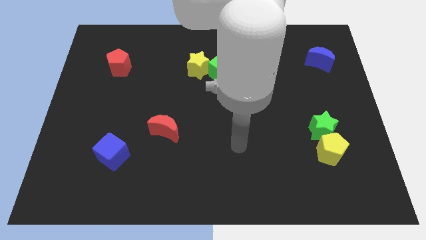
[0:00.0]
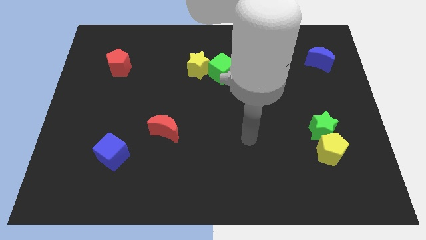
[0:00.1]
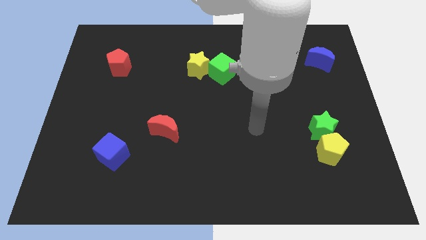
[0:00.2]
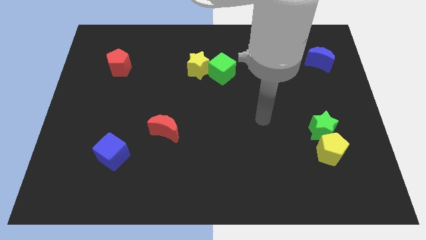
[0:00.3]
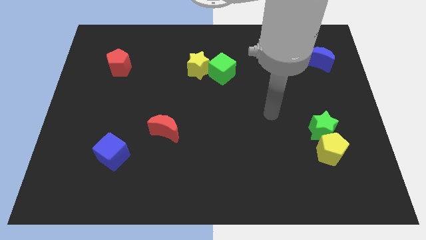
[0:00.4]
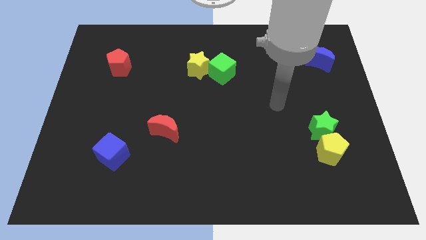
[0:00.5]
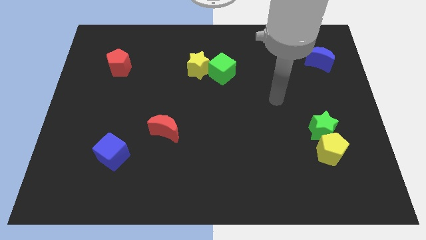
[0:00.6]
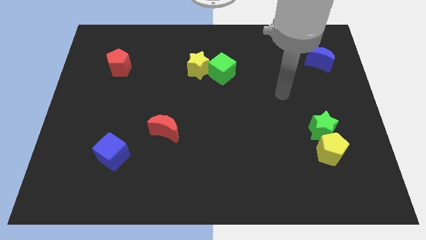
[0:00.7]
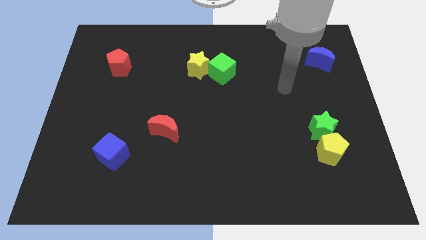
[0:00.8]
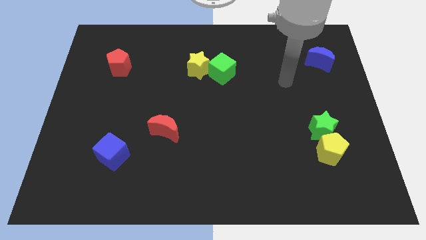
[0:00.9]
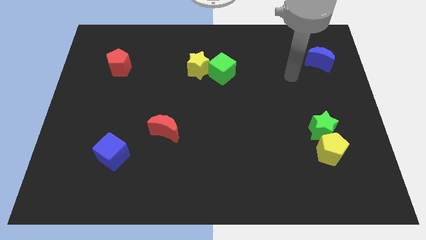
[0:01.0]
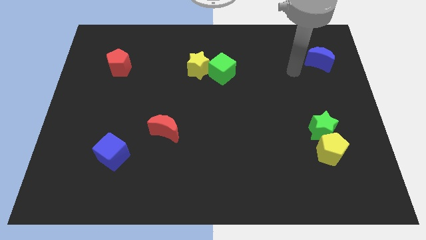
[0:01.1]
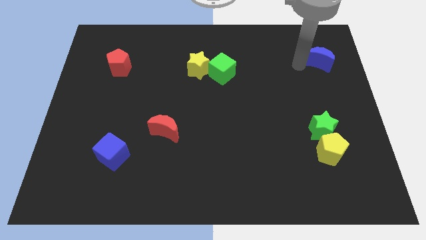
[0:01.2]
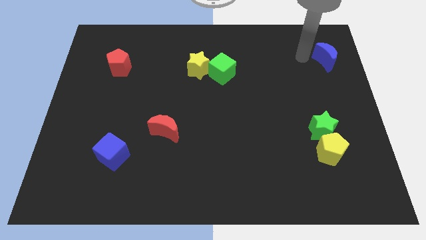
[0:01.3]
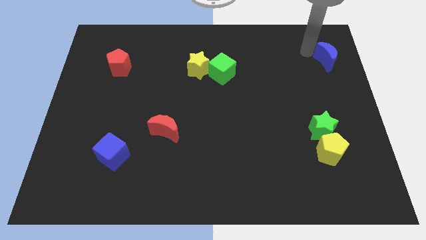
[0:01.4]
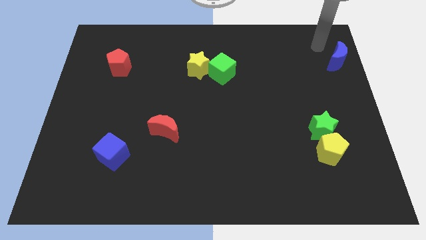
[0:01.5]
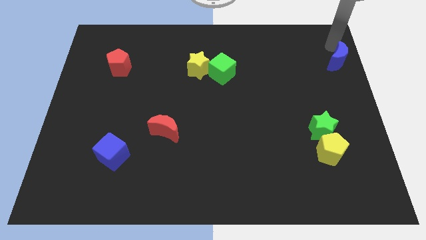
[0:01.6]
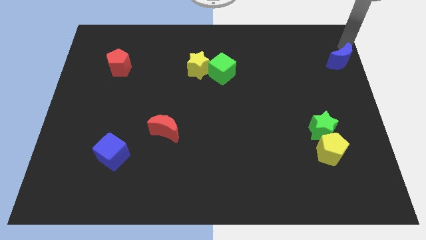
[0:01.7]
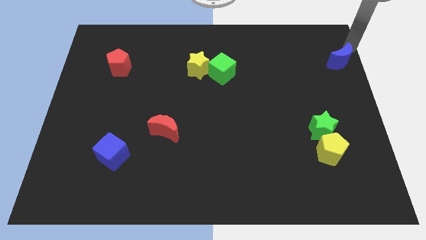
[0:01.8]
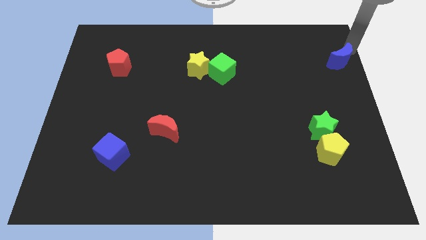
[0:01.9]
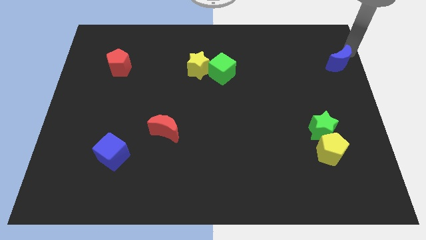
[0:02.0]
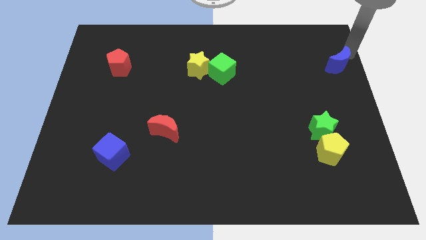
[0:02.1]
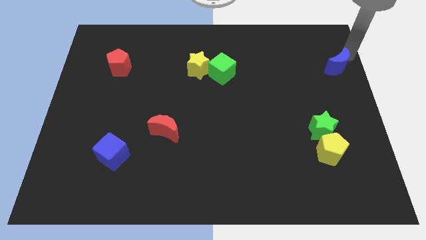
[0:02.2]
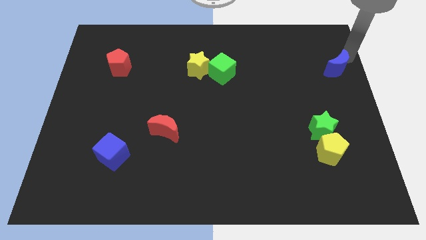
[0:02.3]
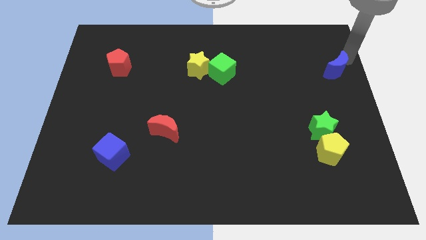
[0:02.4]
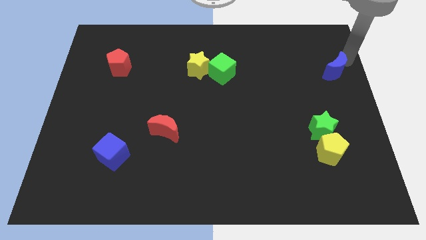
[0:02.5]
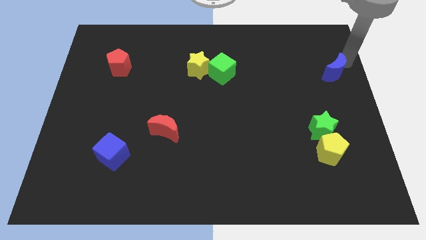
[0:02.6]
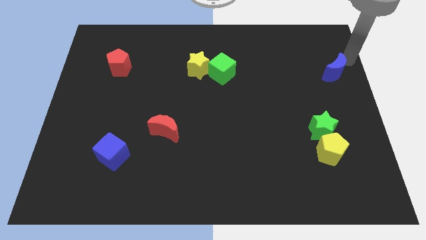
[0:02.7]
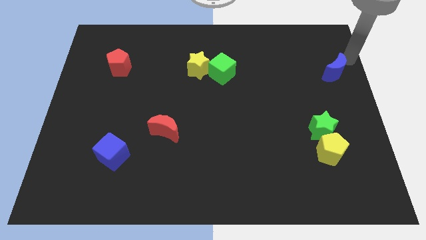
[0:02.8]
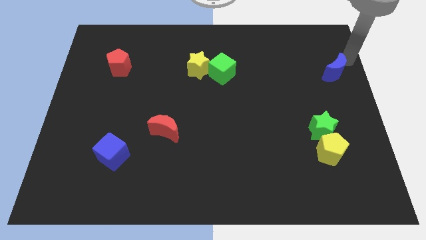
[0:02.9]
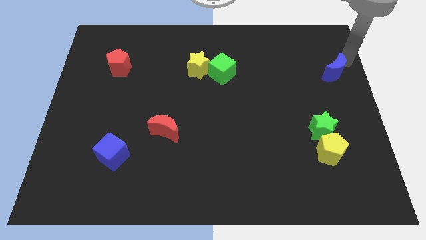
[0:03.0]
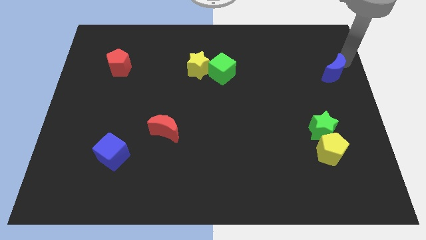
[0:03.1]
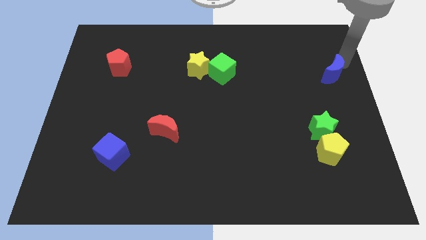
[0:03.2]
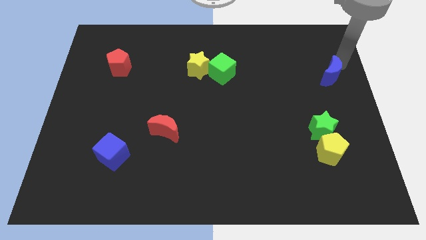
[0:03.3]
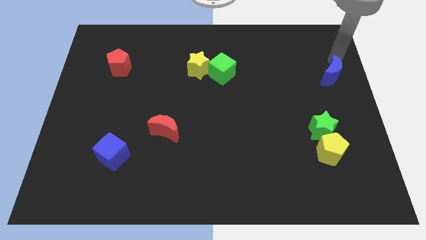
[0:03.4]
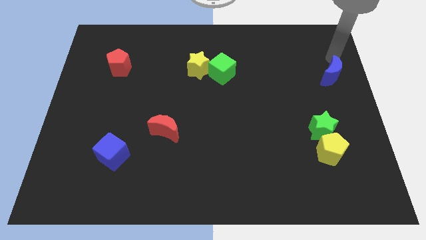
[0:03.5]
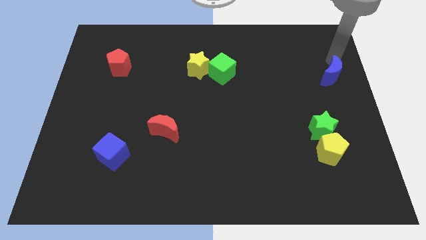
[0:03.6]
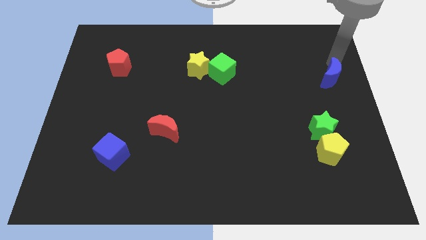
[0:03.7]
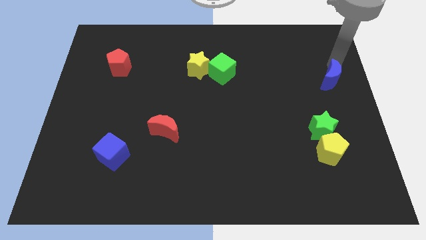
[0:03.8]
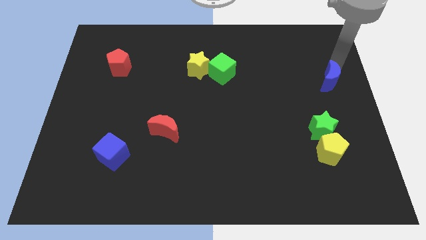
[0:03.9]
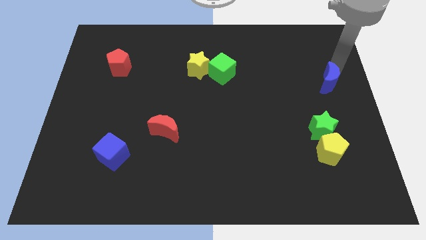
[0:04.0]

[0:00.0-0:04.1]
slightly move the blue moon downwards

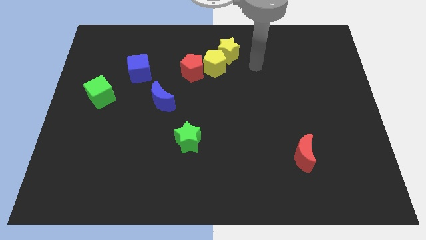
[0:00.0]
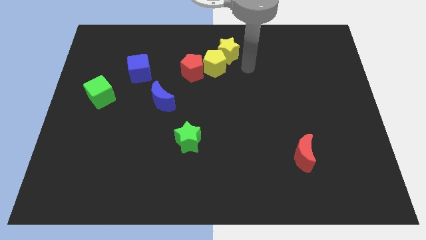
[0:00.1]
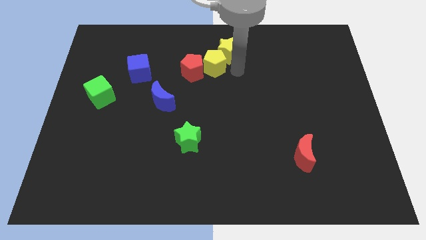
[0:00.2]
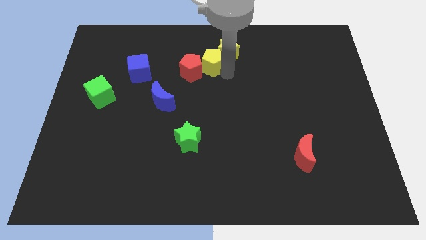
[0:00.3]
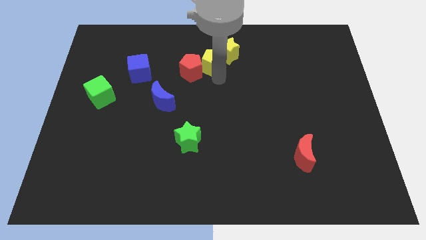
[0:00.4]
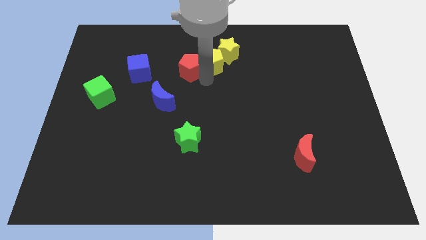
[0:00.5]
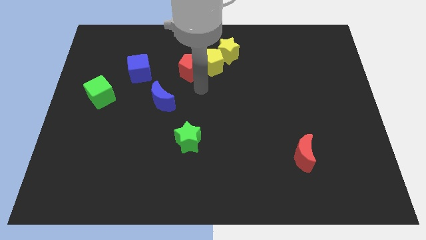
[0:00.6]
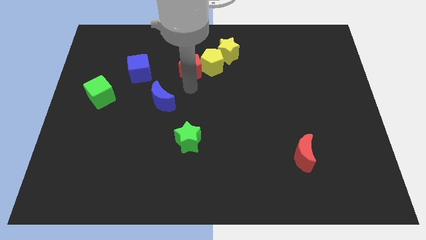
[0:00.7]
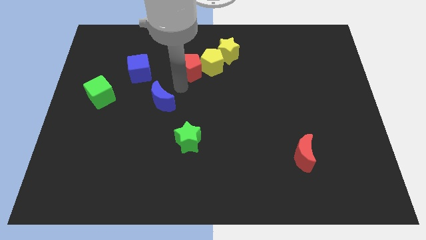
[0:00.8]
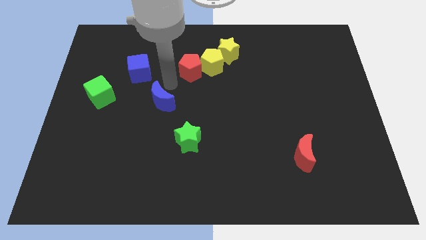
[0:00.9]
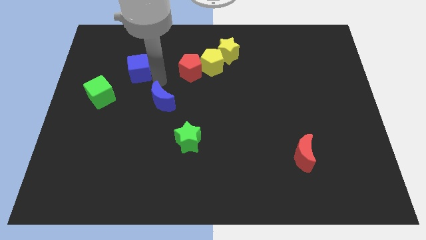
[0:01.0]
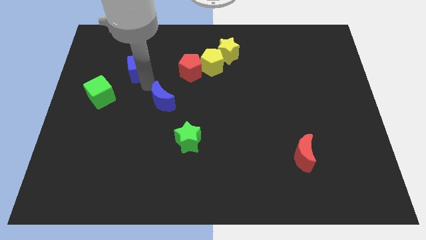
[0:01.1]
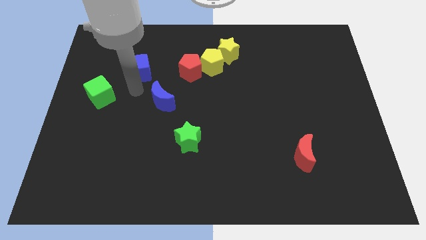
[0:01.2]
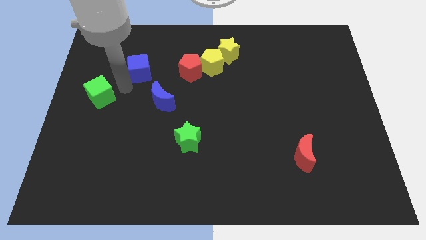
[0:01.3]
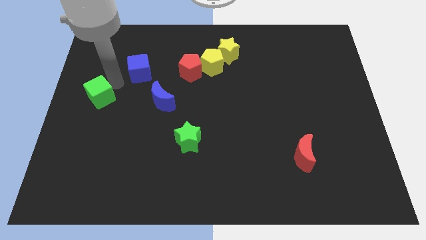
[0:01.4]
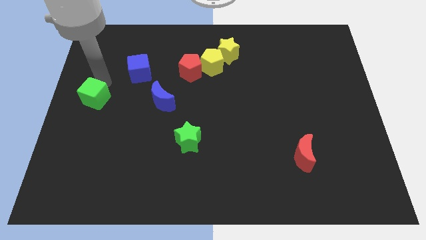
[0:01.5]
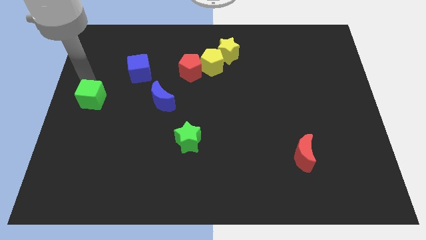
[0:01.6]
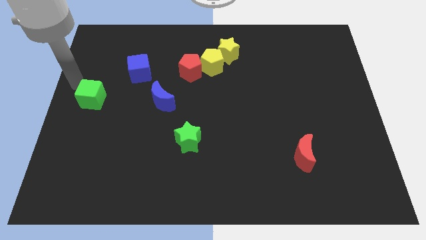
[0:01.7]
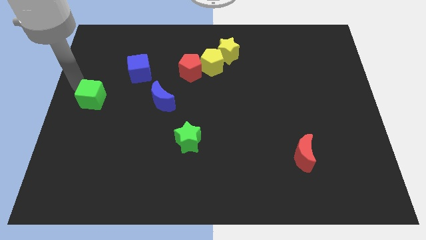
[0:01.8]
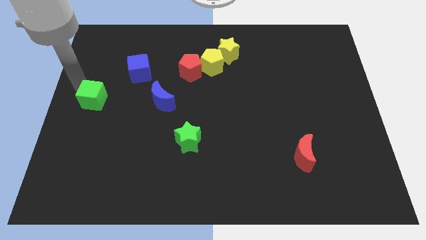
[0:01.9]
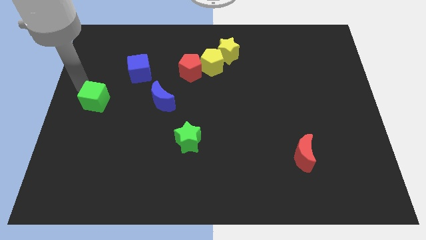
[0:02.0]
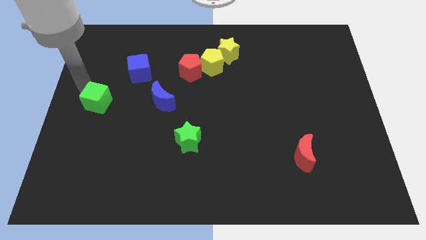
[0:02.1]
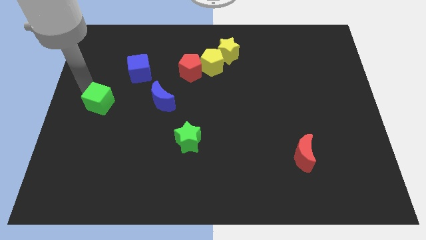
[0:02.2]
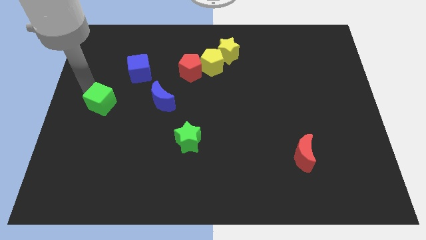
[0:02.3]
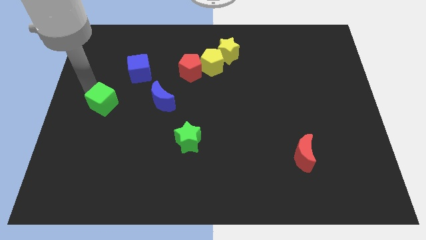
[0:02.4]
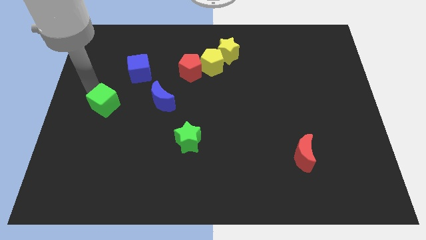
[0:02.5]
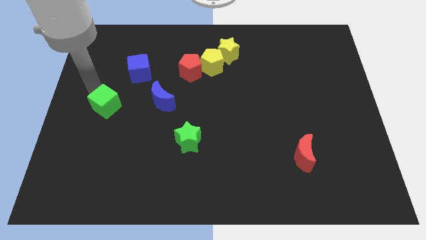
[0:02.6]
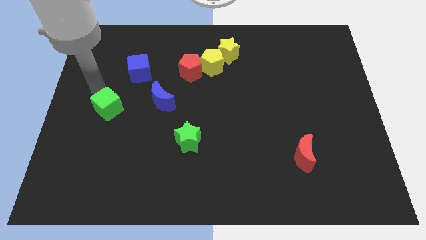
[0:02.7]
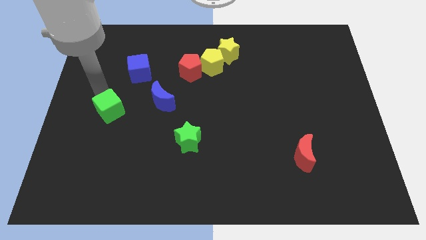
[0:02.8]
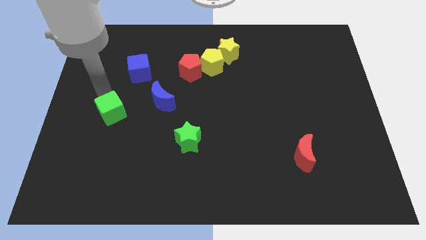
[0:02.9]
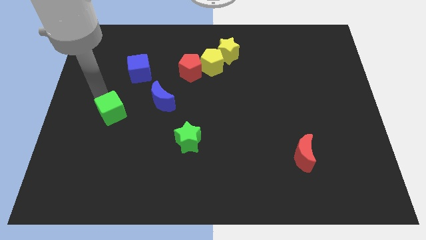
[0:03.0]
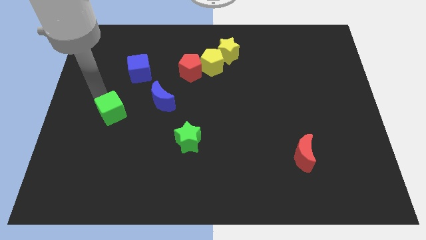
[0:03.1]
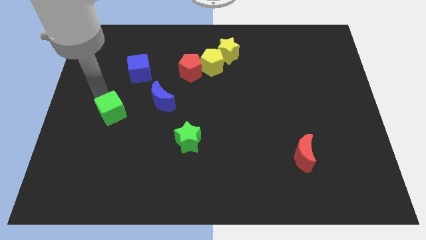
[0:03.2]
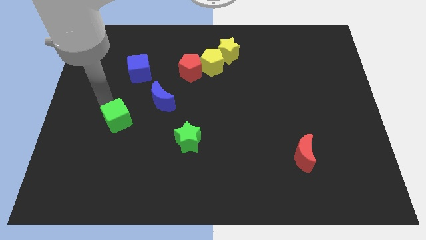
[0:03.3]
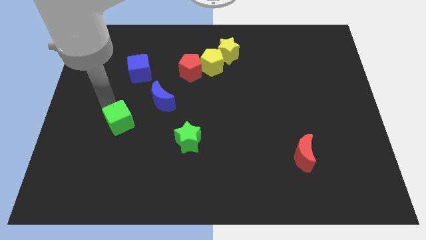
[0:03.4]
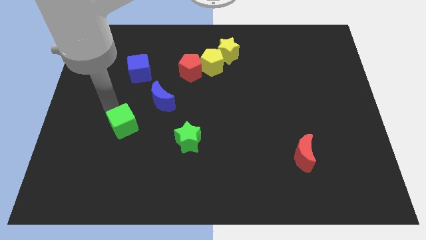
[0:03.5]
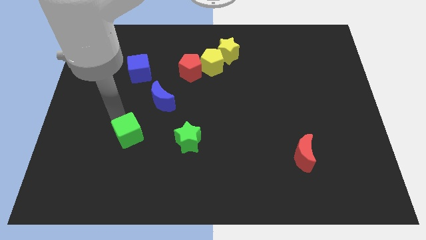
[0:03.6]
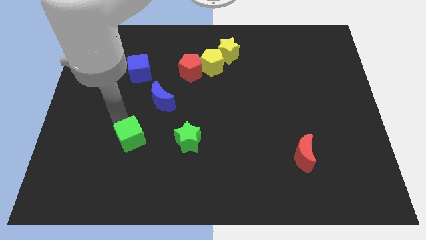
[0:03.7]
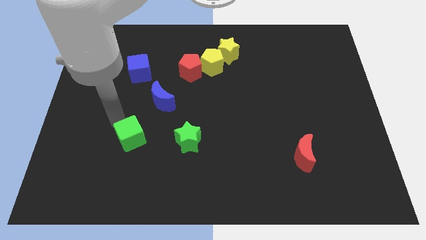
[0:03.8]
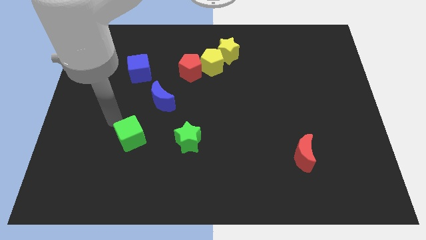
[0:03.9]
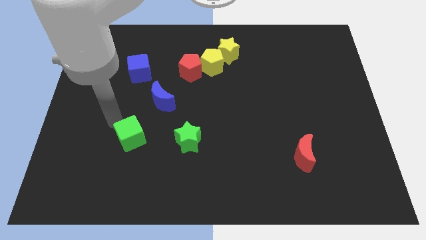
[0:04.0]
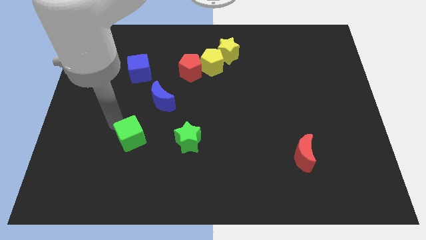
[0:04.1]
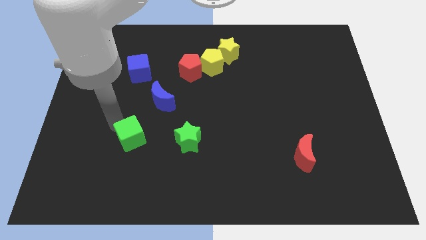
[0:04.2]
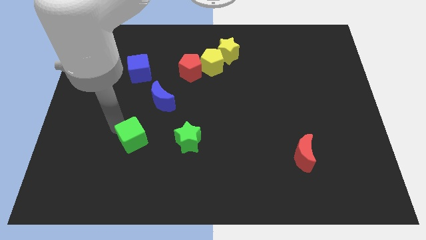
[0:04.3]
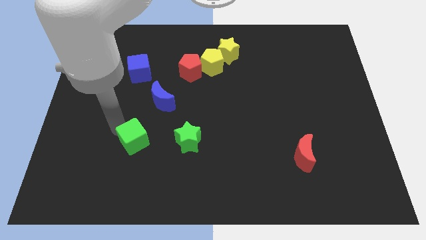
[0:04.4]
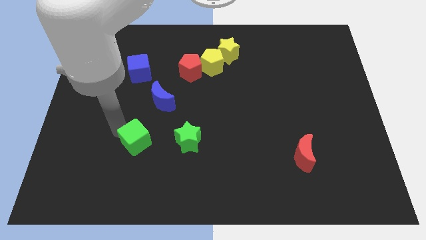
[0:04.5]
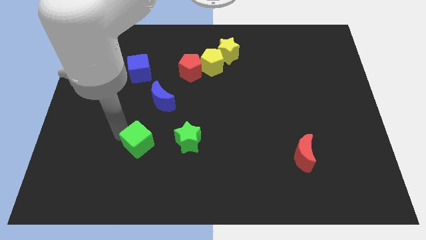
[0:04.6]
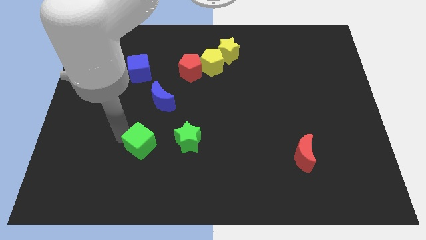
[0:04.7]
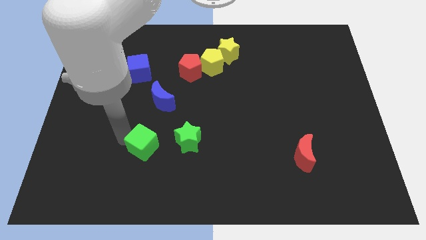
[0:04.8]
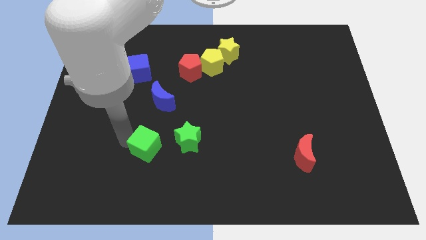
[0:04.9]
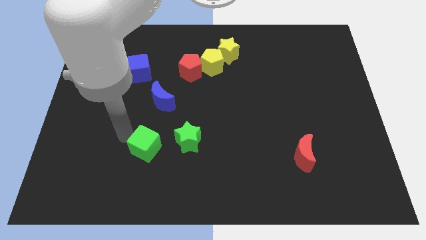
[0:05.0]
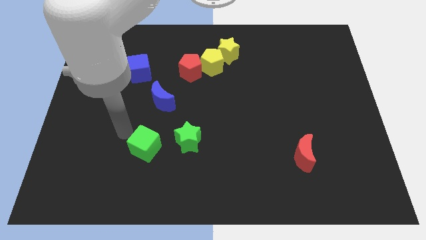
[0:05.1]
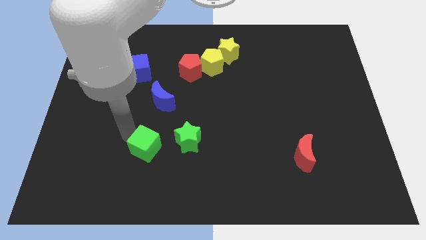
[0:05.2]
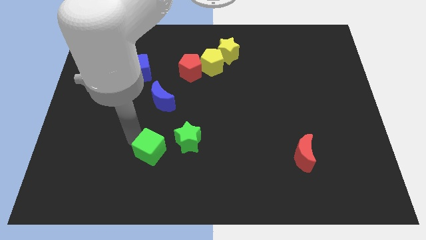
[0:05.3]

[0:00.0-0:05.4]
slide the green cube diagonally downwards and right
